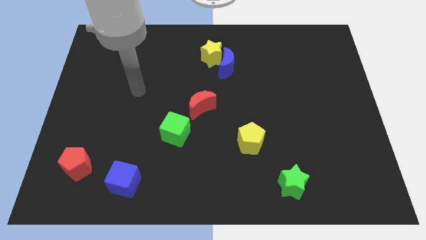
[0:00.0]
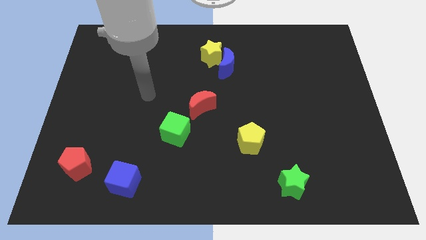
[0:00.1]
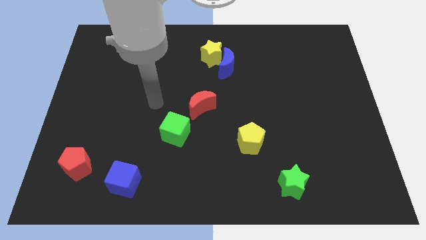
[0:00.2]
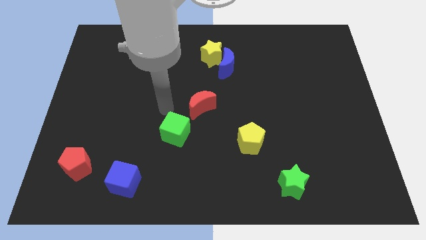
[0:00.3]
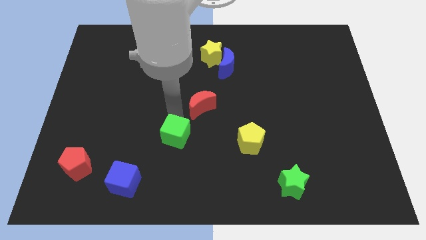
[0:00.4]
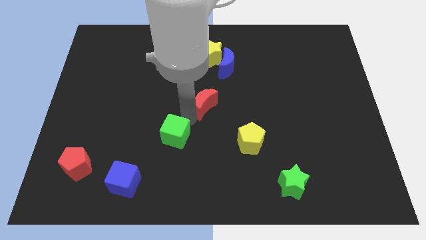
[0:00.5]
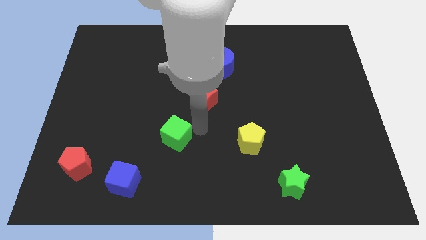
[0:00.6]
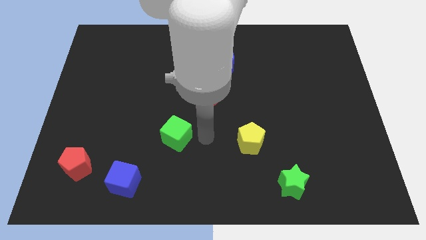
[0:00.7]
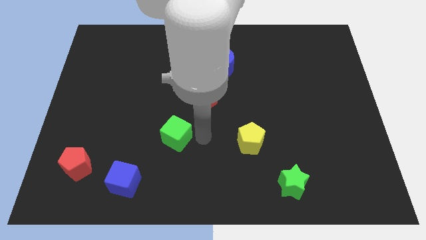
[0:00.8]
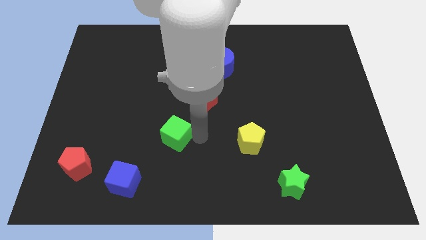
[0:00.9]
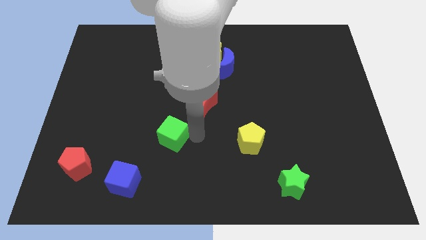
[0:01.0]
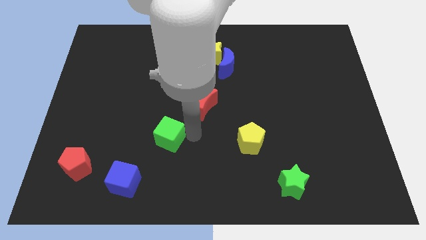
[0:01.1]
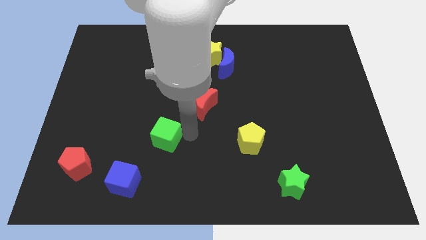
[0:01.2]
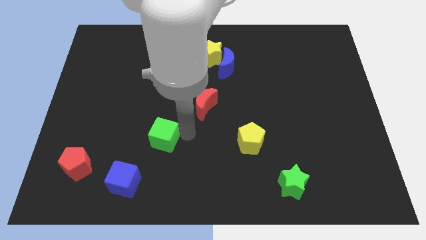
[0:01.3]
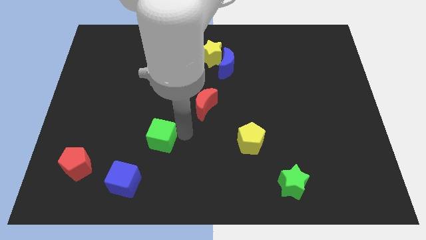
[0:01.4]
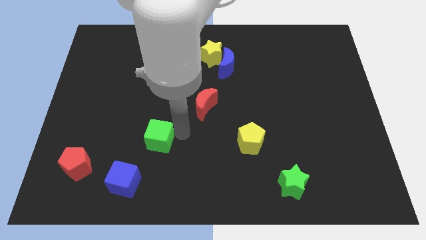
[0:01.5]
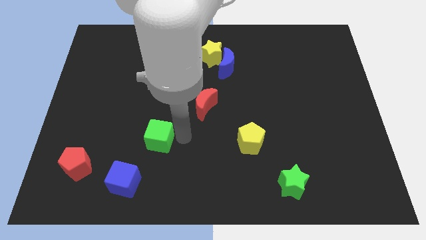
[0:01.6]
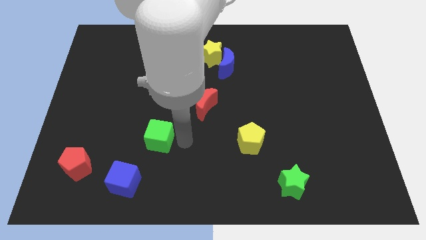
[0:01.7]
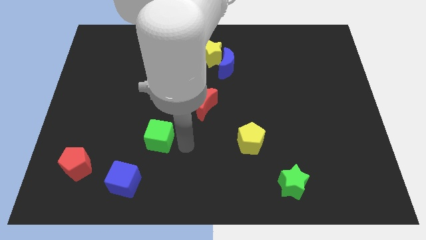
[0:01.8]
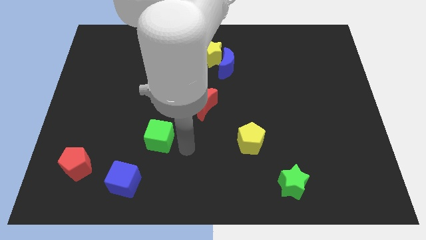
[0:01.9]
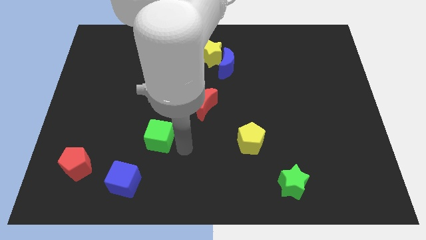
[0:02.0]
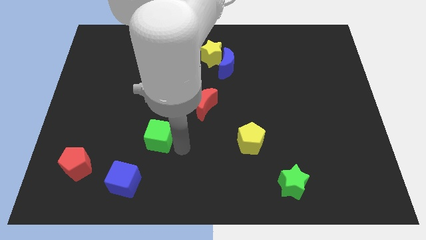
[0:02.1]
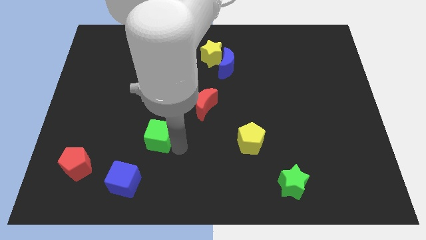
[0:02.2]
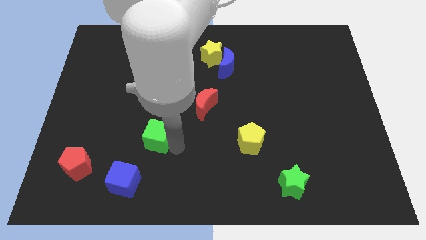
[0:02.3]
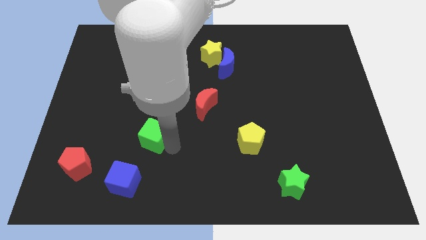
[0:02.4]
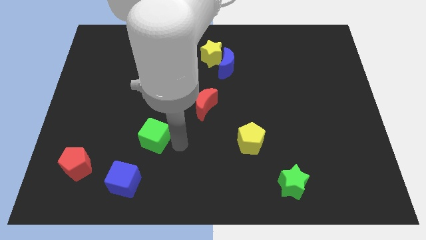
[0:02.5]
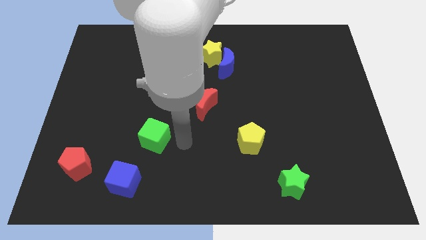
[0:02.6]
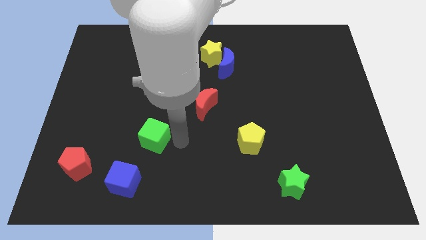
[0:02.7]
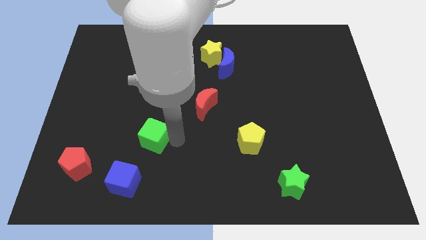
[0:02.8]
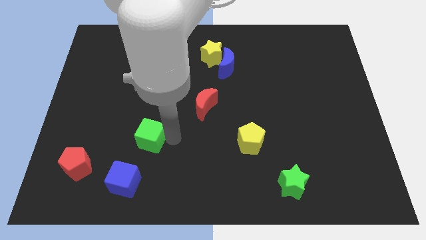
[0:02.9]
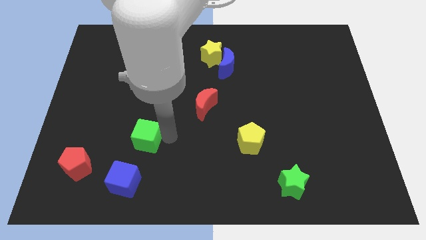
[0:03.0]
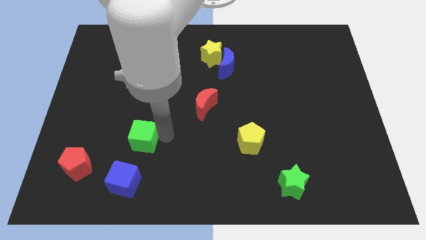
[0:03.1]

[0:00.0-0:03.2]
move the green cube left slightly

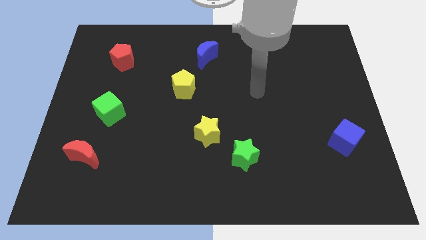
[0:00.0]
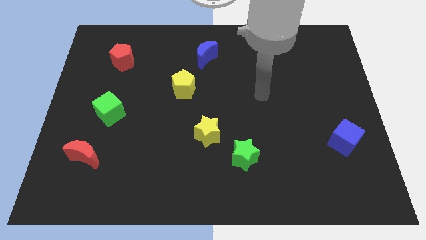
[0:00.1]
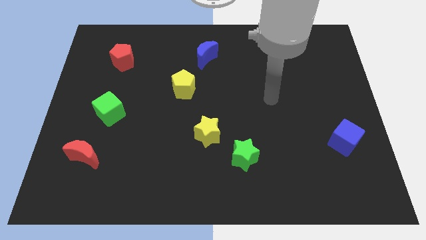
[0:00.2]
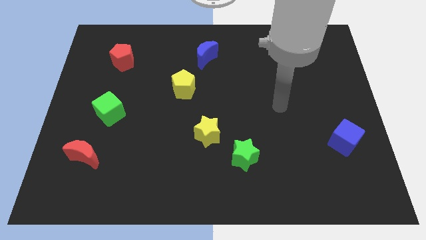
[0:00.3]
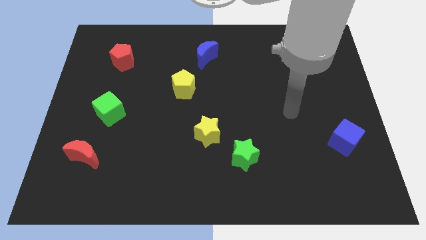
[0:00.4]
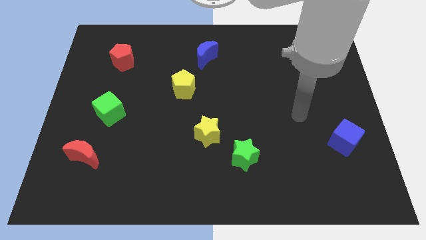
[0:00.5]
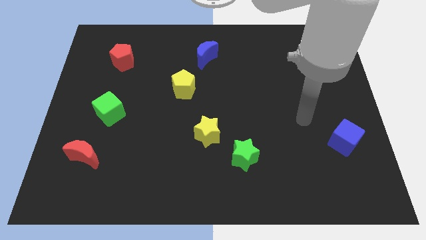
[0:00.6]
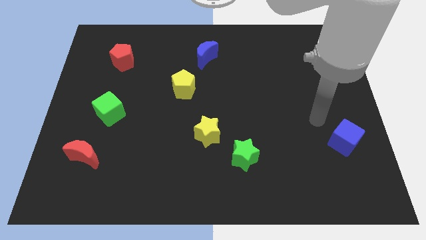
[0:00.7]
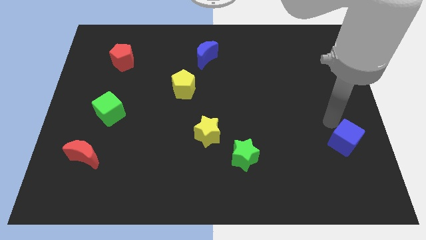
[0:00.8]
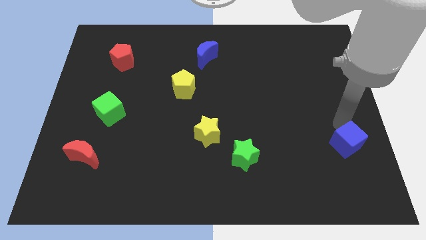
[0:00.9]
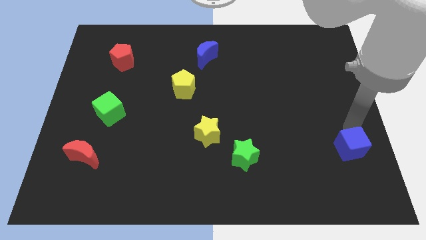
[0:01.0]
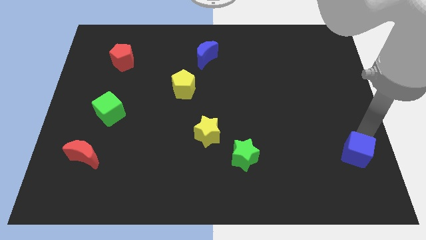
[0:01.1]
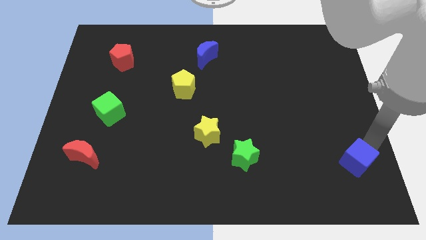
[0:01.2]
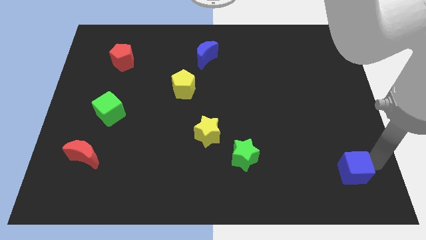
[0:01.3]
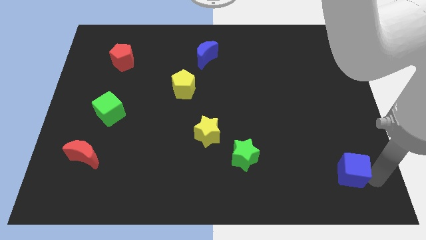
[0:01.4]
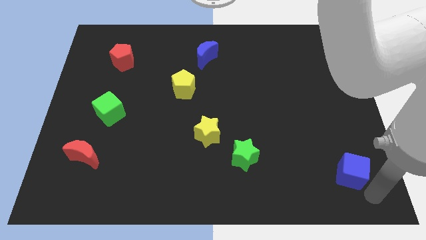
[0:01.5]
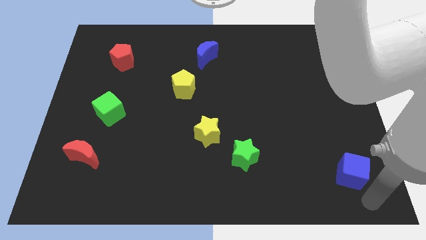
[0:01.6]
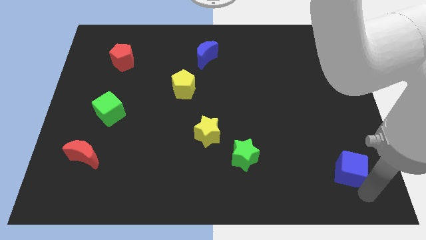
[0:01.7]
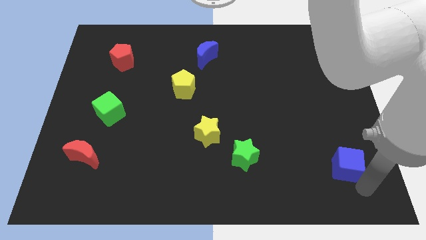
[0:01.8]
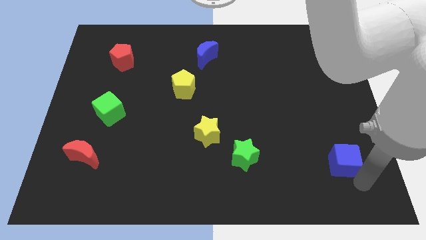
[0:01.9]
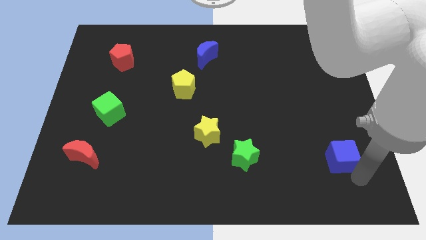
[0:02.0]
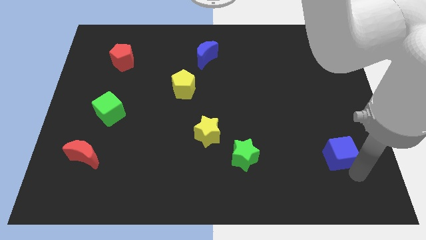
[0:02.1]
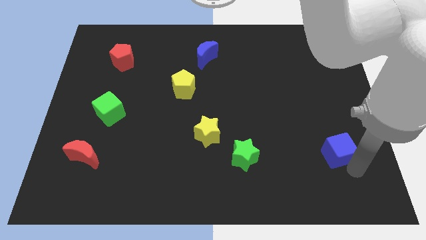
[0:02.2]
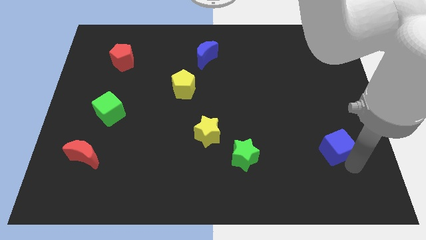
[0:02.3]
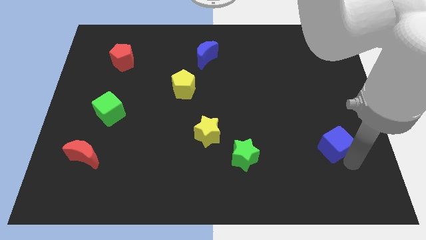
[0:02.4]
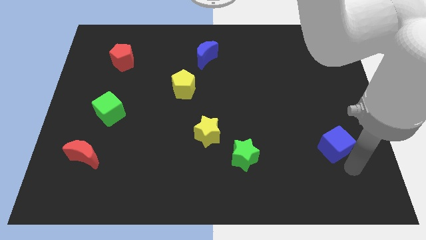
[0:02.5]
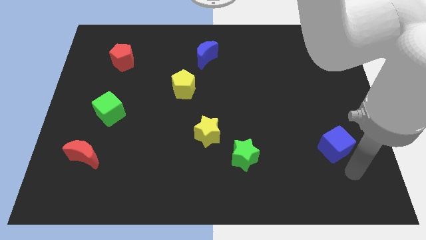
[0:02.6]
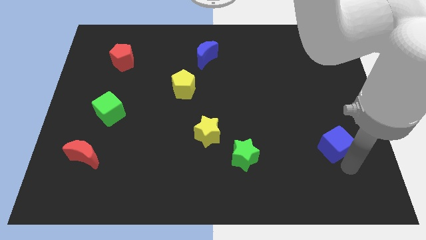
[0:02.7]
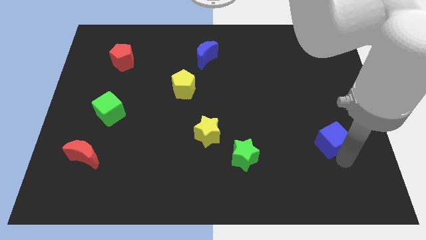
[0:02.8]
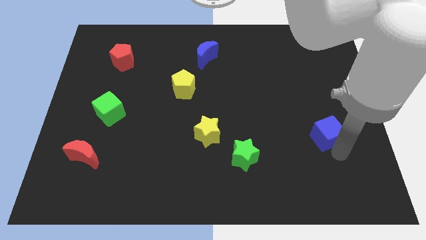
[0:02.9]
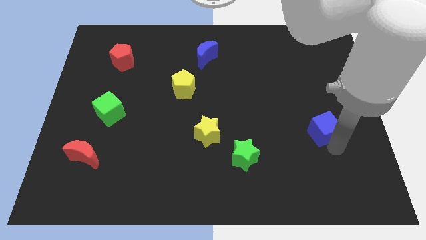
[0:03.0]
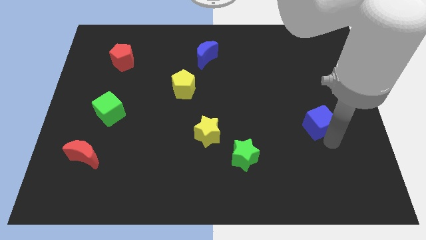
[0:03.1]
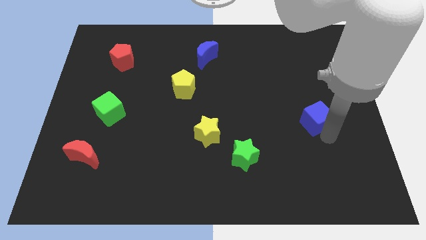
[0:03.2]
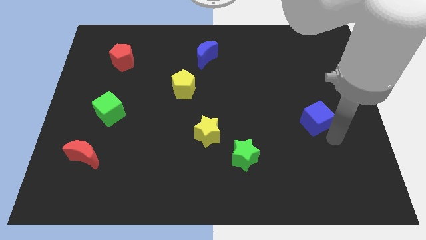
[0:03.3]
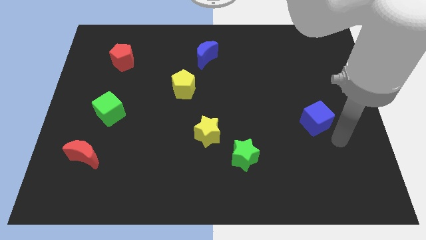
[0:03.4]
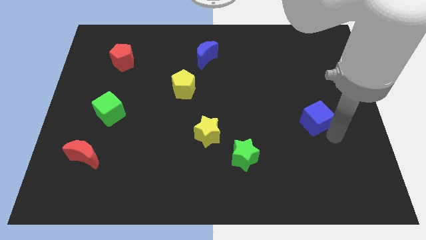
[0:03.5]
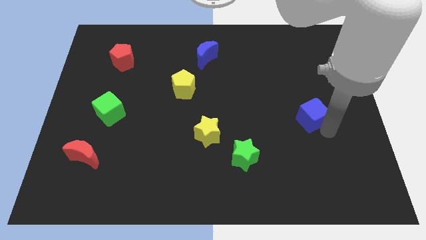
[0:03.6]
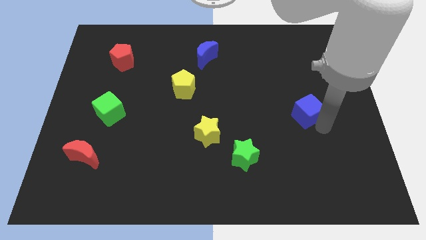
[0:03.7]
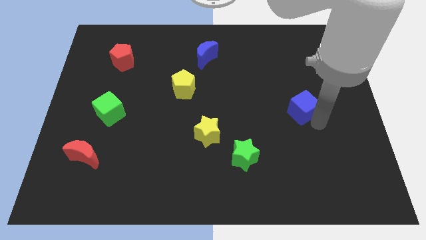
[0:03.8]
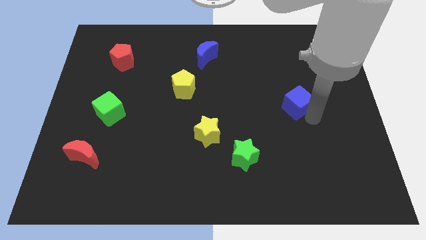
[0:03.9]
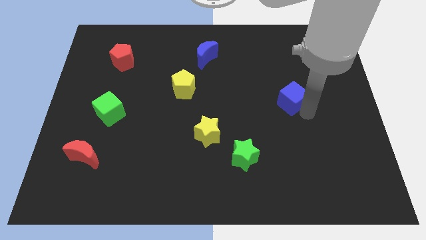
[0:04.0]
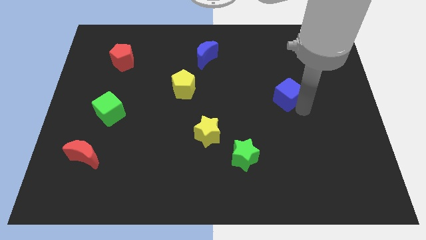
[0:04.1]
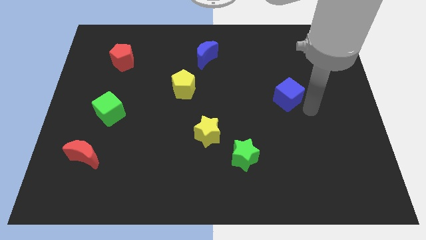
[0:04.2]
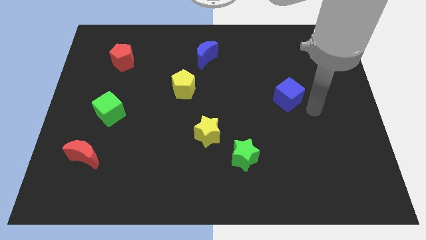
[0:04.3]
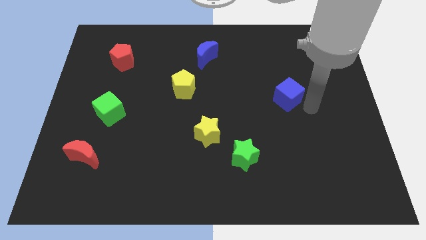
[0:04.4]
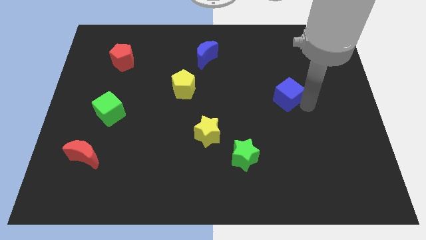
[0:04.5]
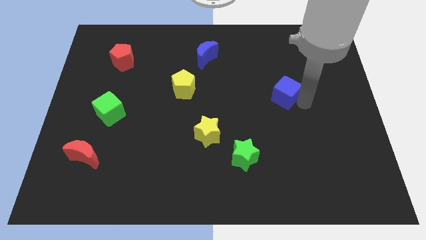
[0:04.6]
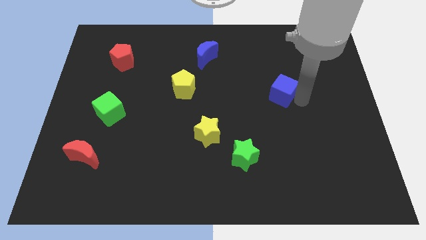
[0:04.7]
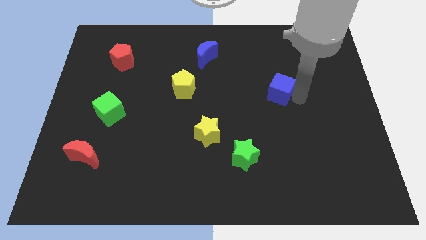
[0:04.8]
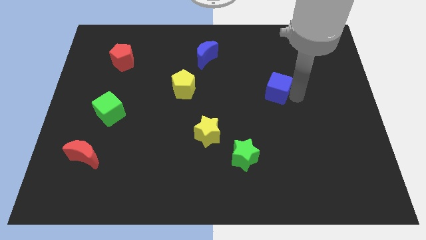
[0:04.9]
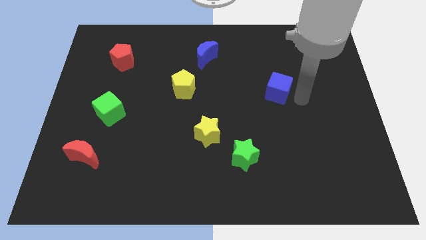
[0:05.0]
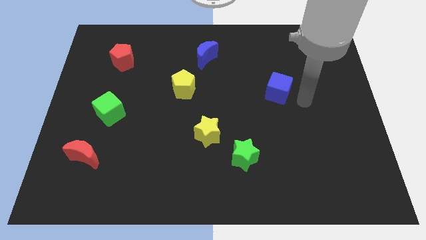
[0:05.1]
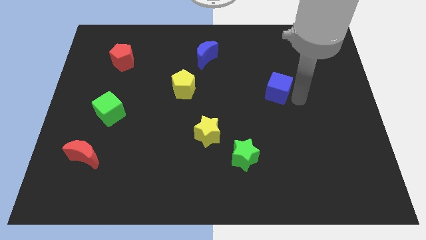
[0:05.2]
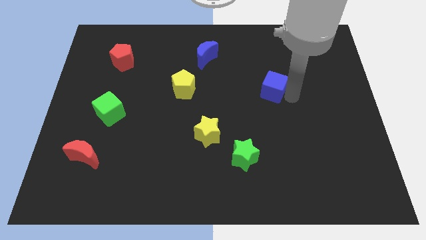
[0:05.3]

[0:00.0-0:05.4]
push the blue cube upwards and then to the left
